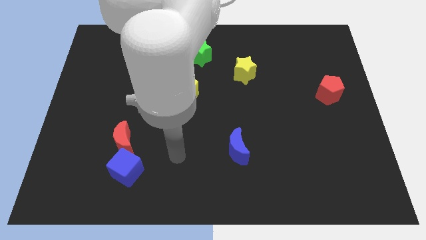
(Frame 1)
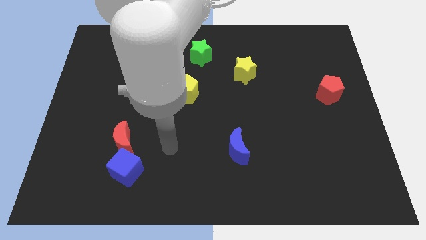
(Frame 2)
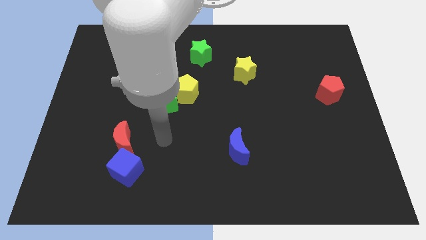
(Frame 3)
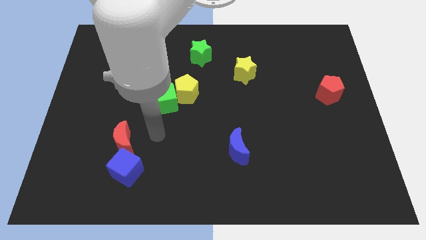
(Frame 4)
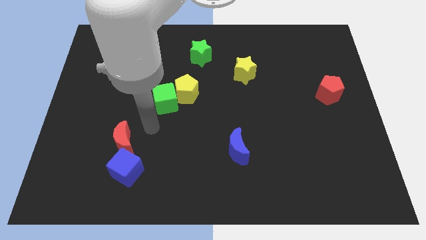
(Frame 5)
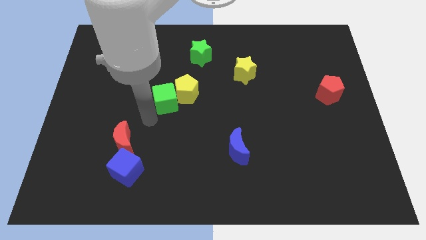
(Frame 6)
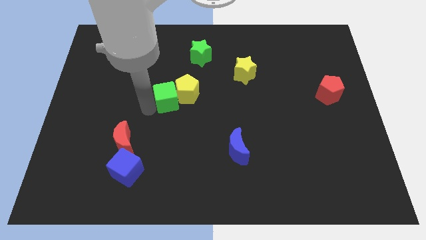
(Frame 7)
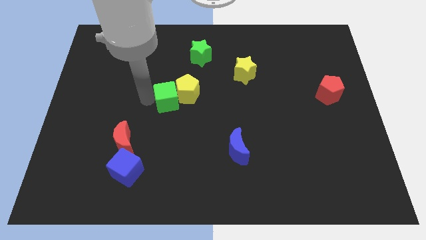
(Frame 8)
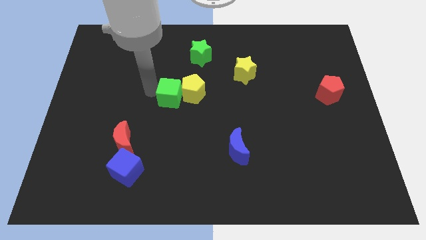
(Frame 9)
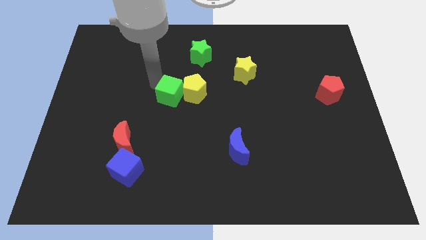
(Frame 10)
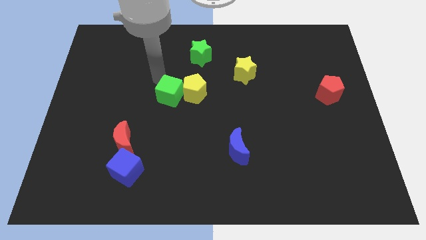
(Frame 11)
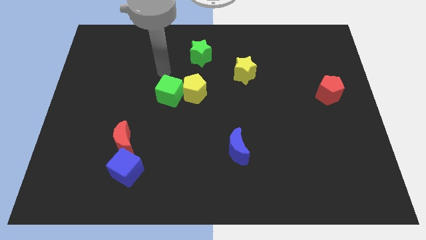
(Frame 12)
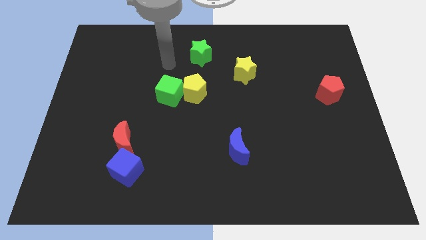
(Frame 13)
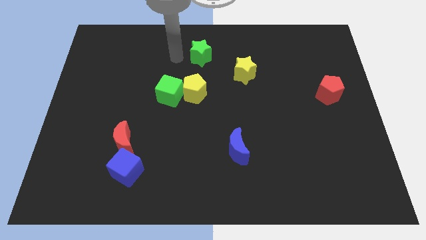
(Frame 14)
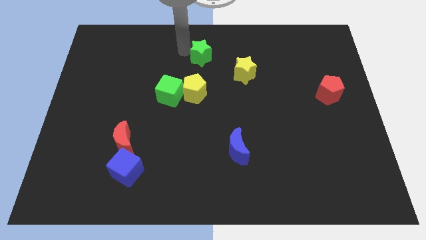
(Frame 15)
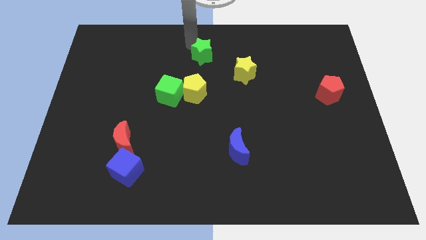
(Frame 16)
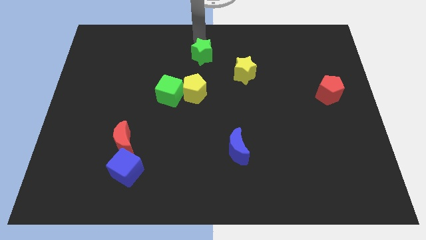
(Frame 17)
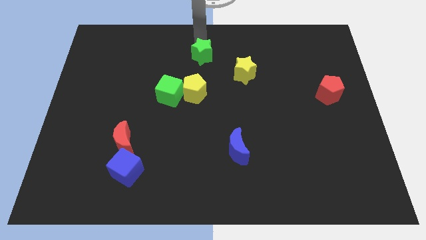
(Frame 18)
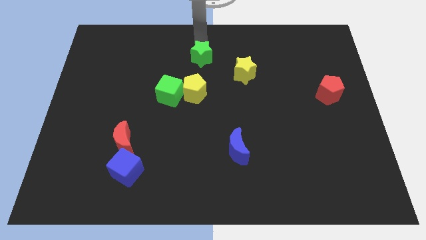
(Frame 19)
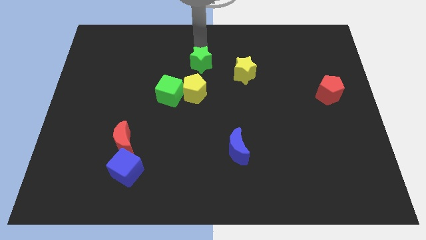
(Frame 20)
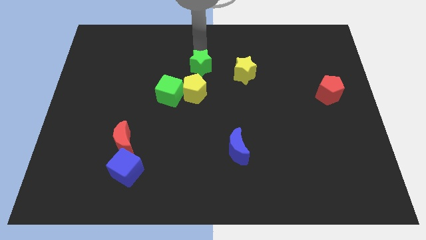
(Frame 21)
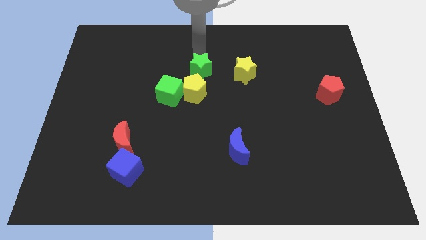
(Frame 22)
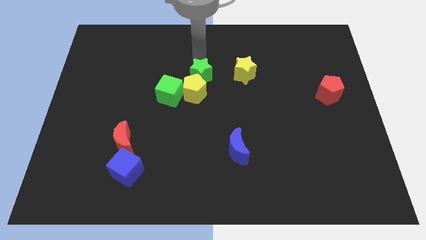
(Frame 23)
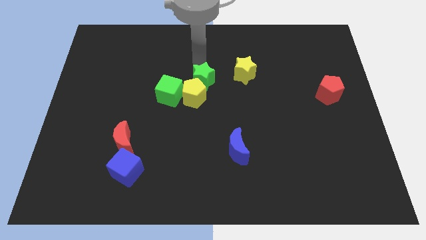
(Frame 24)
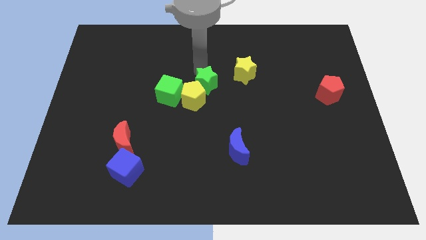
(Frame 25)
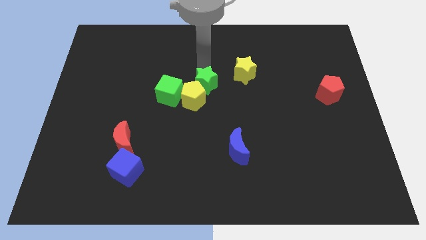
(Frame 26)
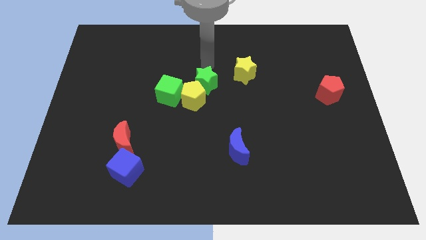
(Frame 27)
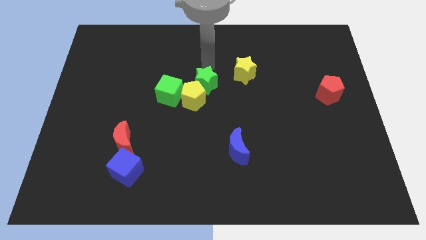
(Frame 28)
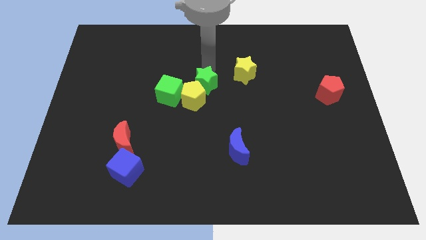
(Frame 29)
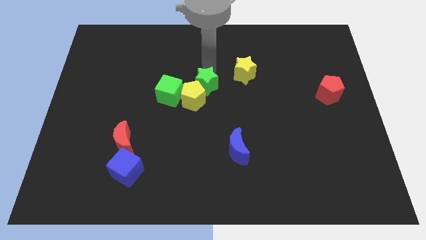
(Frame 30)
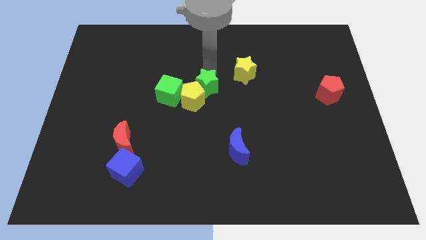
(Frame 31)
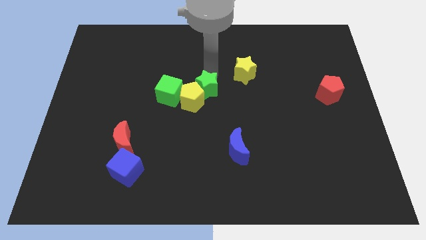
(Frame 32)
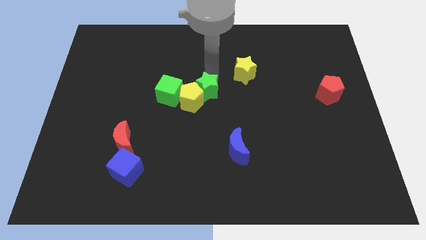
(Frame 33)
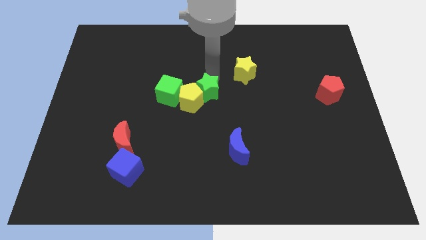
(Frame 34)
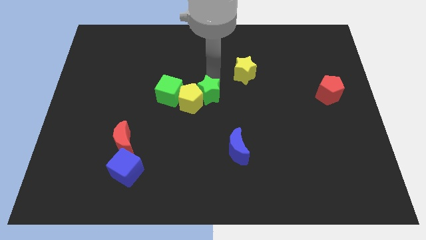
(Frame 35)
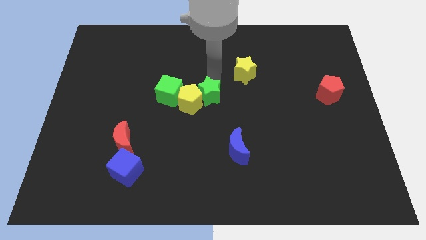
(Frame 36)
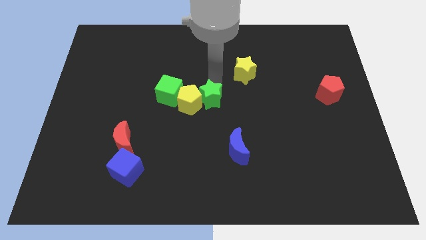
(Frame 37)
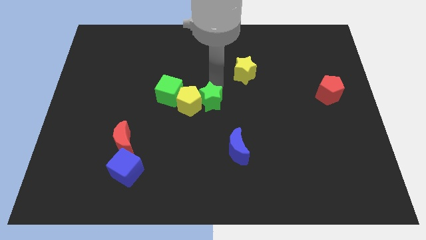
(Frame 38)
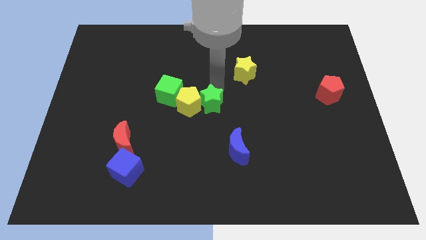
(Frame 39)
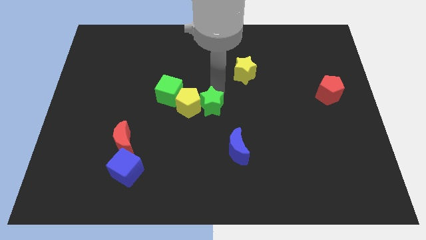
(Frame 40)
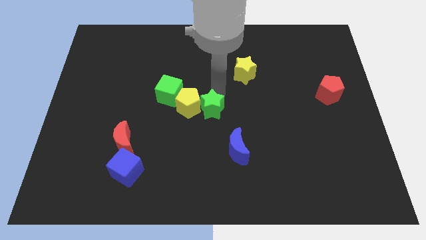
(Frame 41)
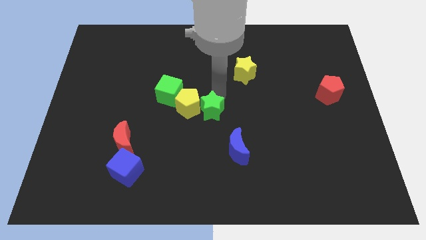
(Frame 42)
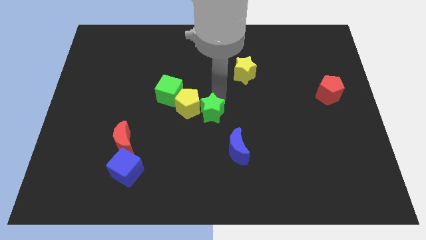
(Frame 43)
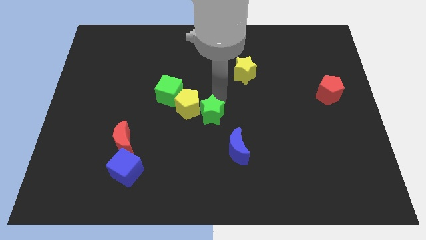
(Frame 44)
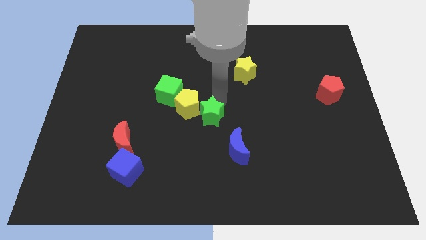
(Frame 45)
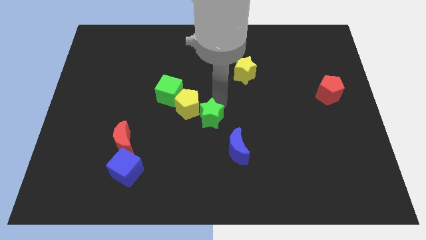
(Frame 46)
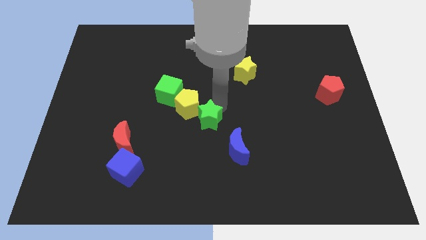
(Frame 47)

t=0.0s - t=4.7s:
move the green star downwards

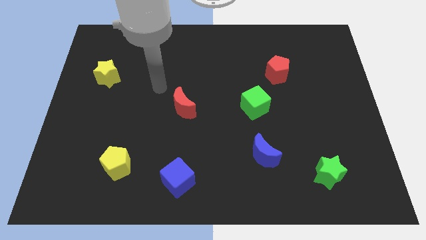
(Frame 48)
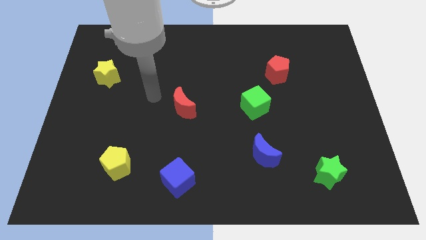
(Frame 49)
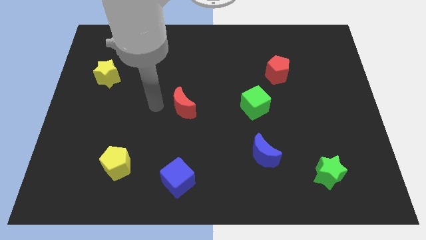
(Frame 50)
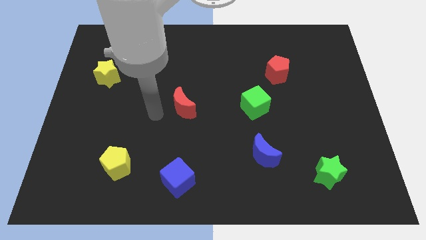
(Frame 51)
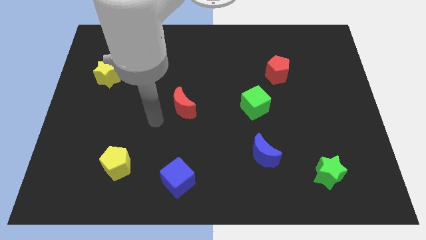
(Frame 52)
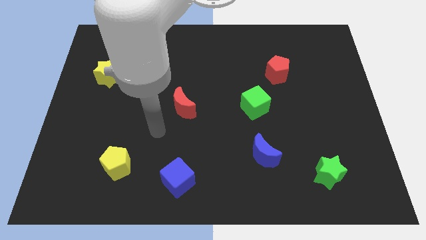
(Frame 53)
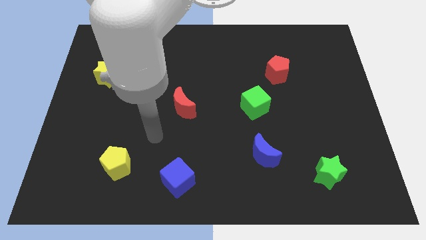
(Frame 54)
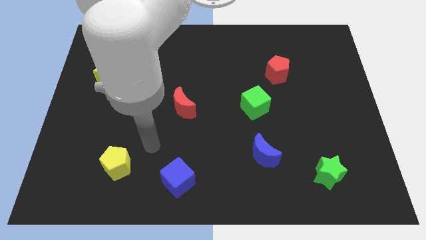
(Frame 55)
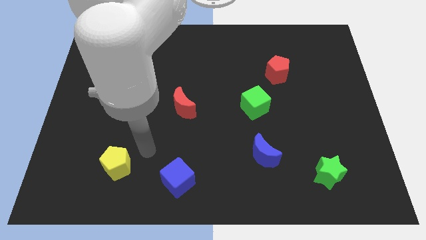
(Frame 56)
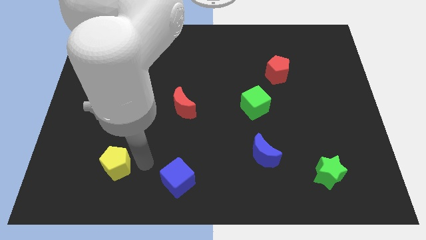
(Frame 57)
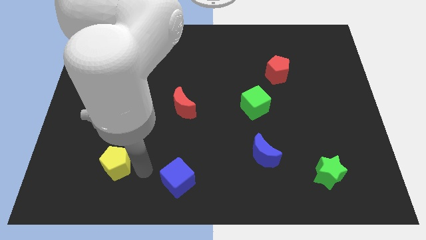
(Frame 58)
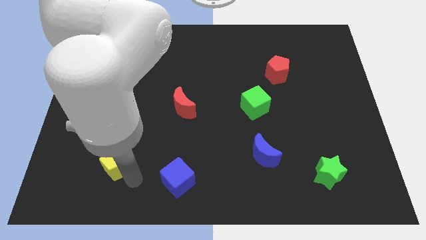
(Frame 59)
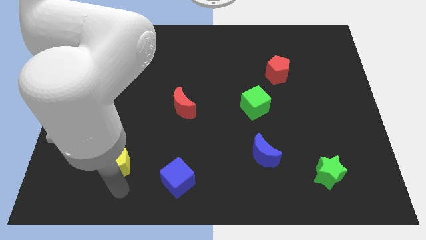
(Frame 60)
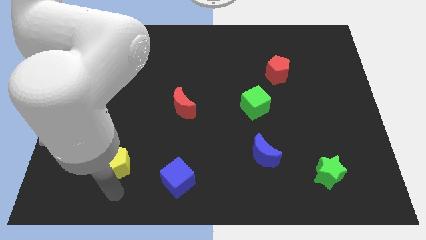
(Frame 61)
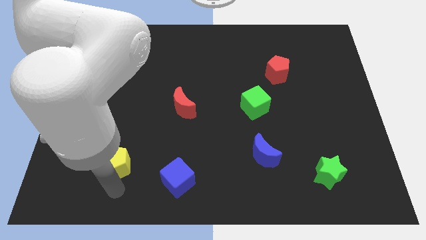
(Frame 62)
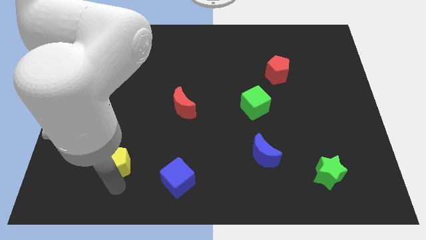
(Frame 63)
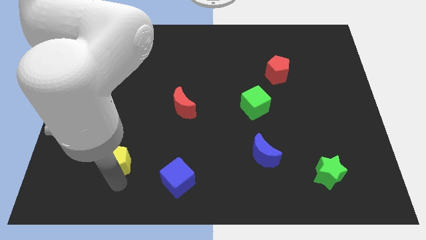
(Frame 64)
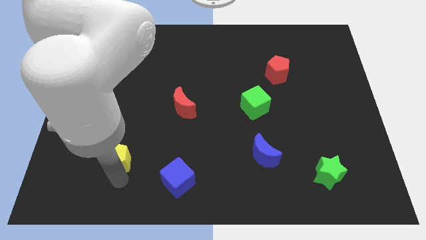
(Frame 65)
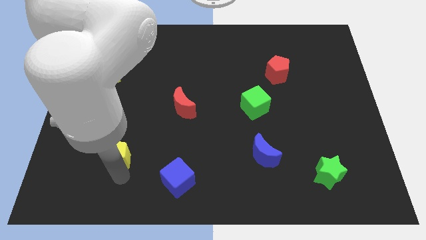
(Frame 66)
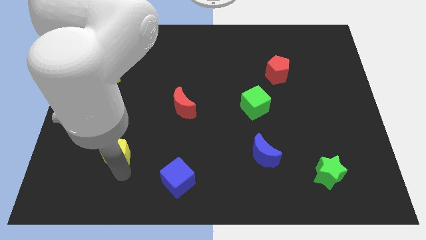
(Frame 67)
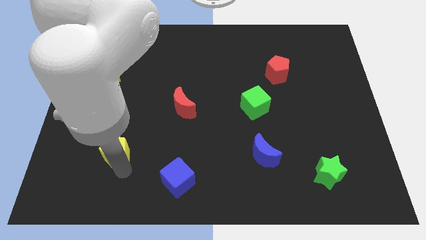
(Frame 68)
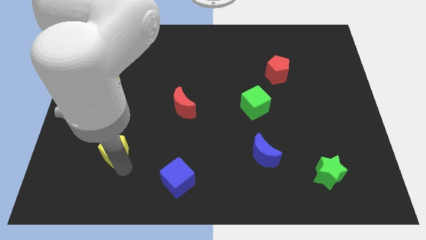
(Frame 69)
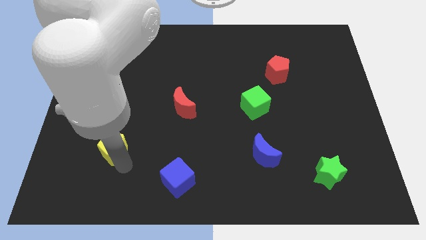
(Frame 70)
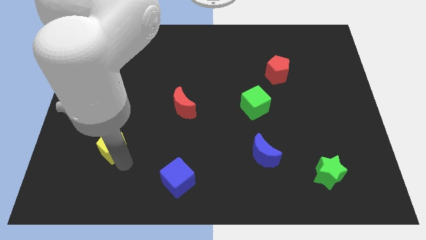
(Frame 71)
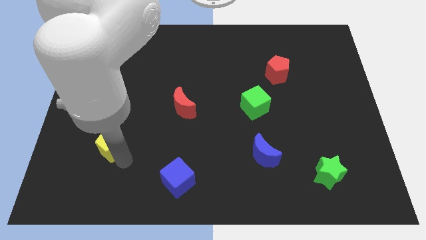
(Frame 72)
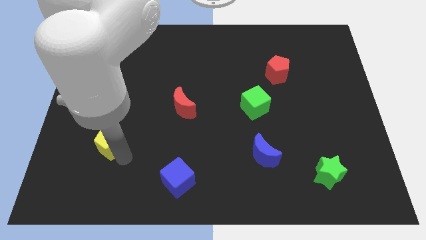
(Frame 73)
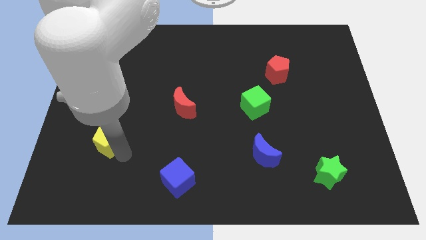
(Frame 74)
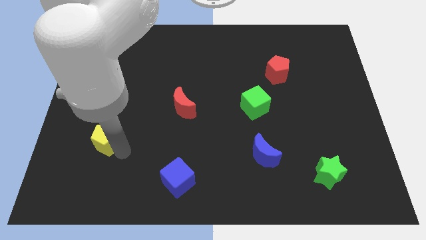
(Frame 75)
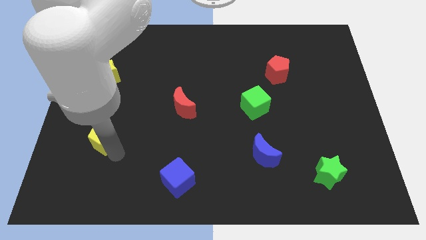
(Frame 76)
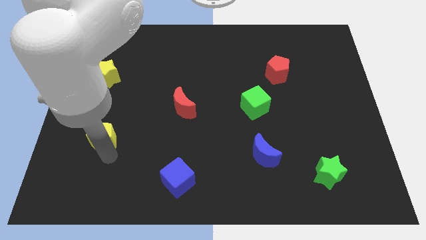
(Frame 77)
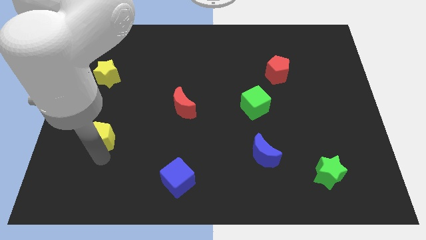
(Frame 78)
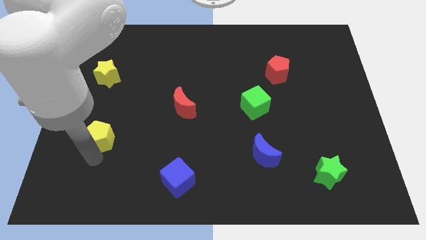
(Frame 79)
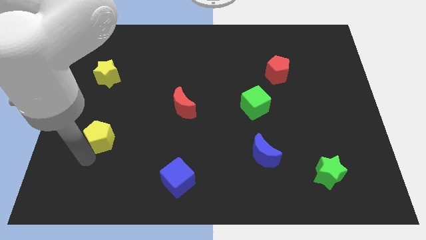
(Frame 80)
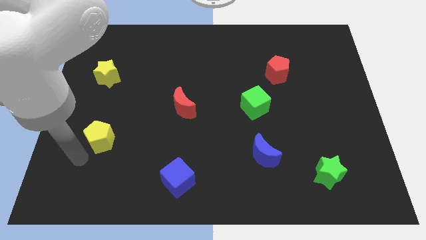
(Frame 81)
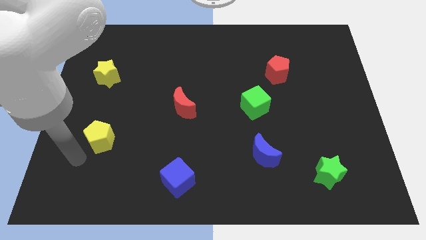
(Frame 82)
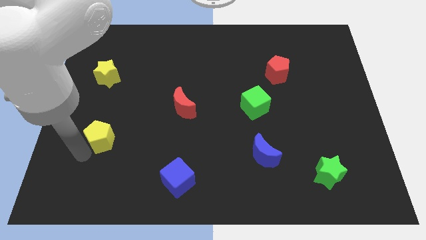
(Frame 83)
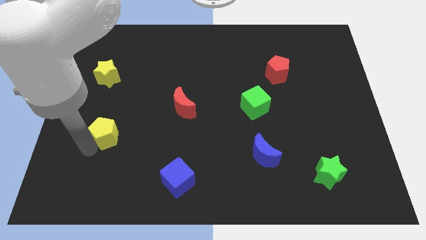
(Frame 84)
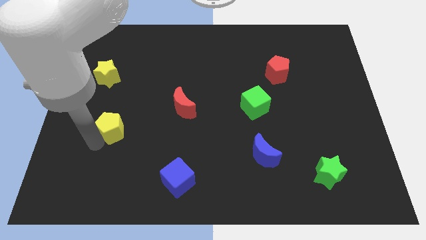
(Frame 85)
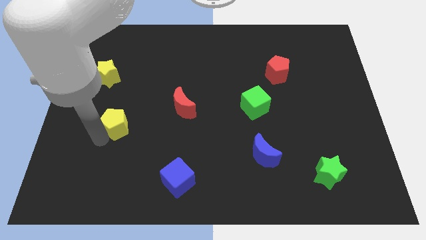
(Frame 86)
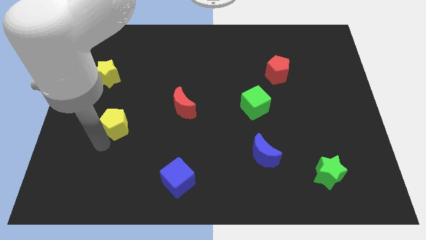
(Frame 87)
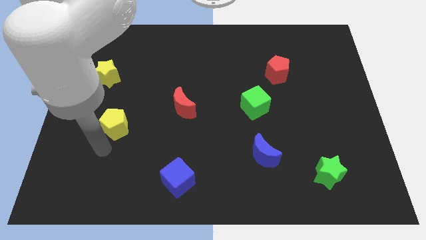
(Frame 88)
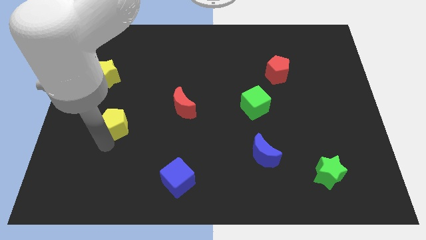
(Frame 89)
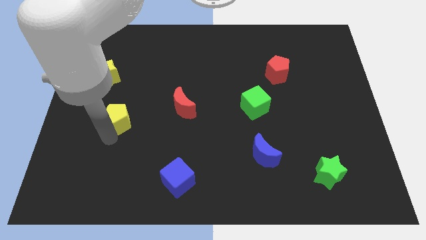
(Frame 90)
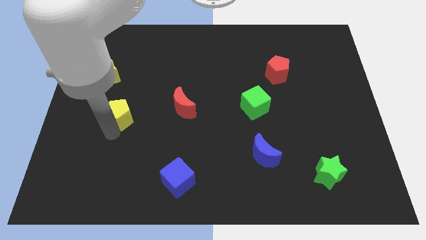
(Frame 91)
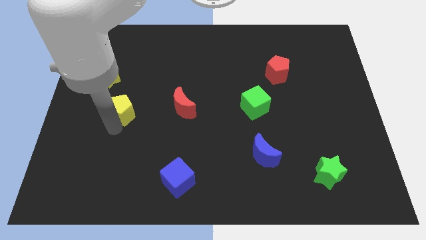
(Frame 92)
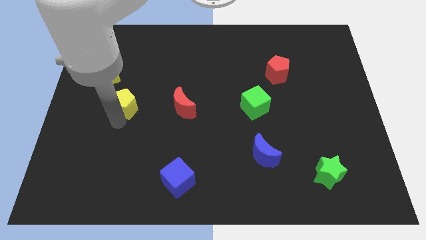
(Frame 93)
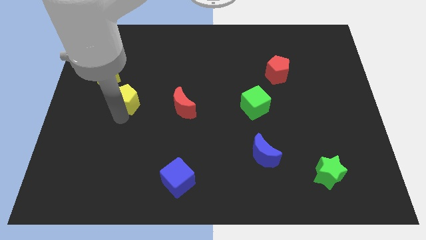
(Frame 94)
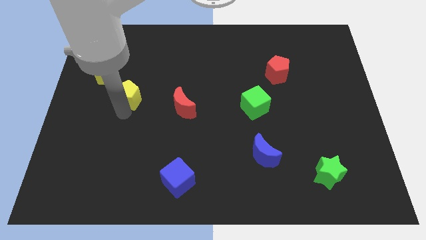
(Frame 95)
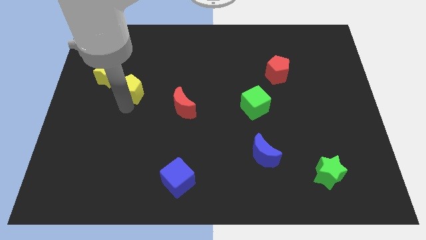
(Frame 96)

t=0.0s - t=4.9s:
slide the yellow pentagon upwards
